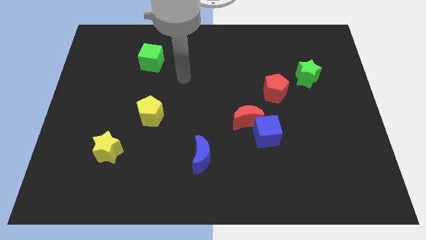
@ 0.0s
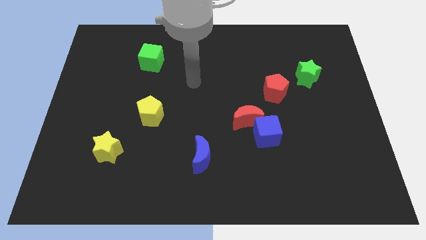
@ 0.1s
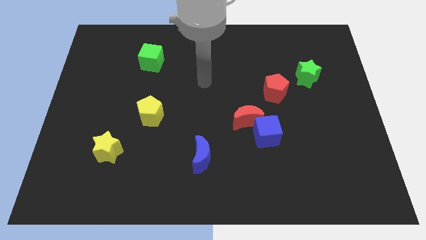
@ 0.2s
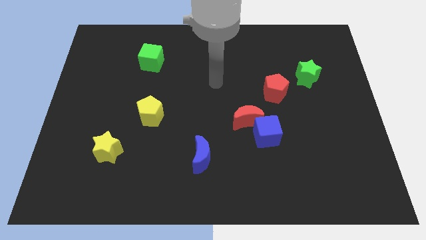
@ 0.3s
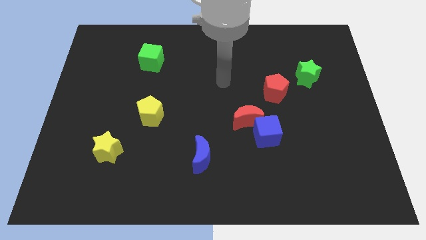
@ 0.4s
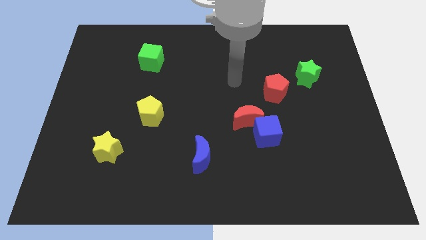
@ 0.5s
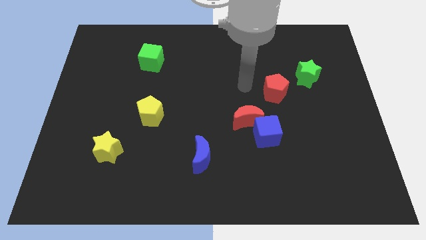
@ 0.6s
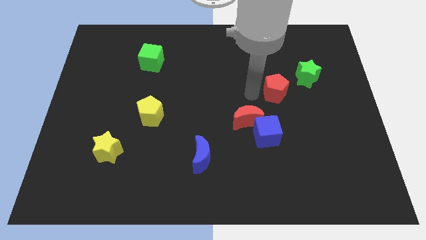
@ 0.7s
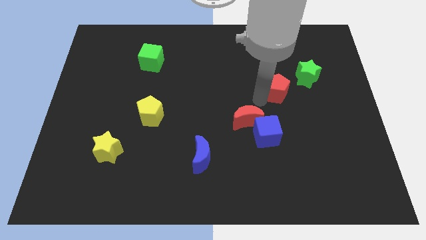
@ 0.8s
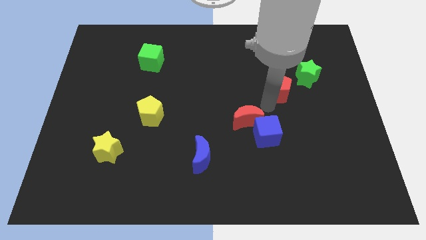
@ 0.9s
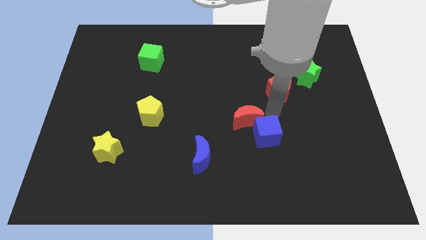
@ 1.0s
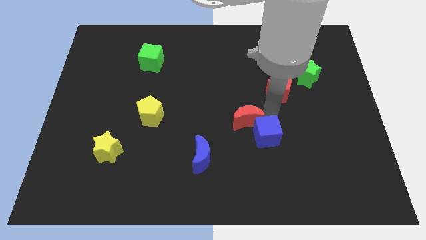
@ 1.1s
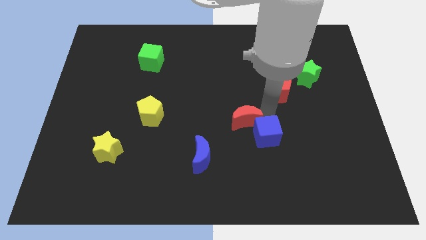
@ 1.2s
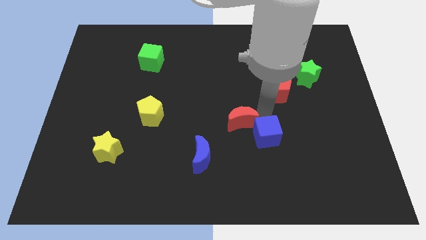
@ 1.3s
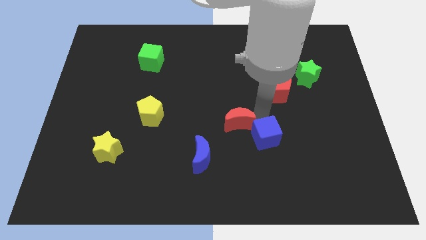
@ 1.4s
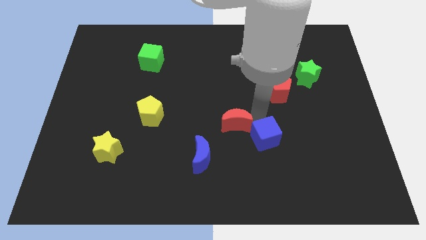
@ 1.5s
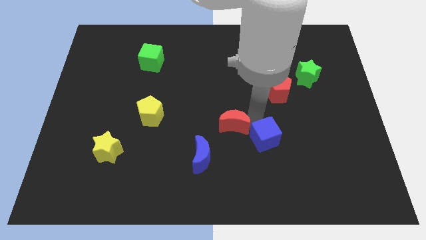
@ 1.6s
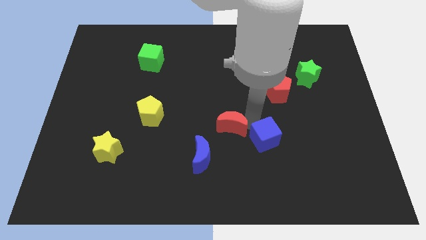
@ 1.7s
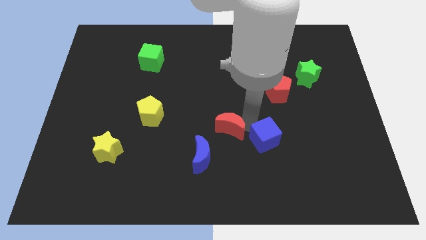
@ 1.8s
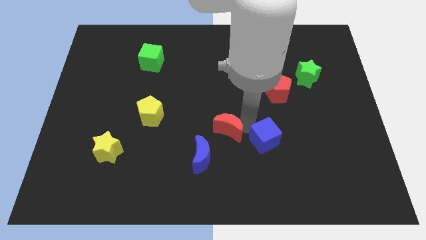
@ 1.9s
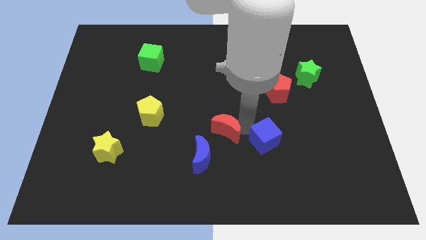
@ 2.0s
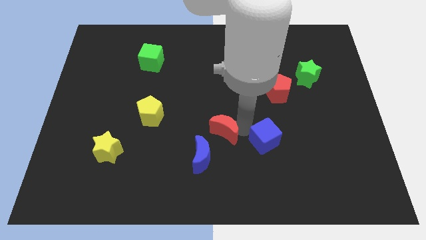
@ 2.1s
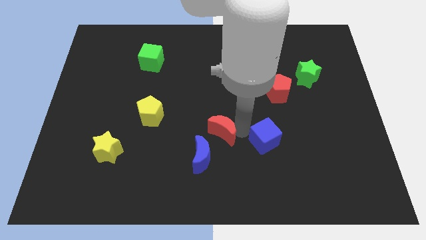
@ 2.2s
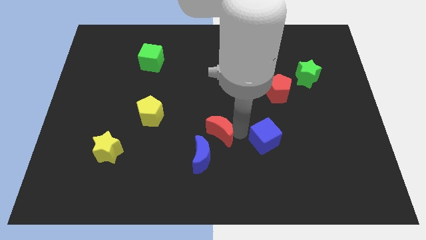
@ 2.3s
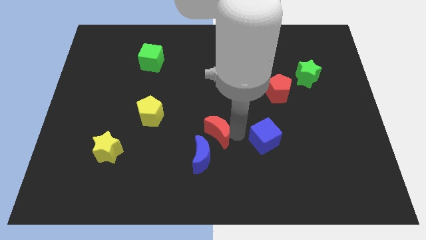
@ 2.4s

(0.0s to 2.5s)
slightly move the red moon down and then left

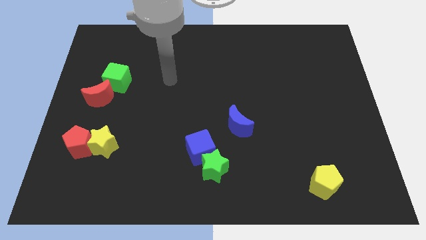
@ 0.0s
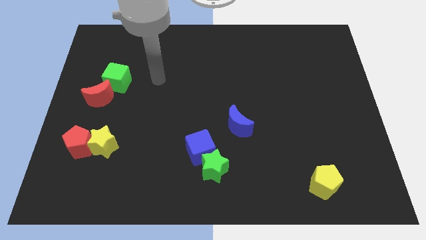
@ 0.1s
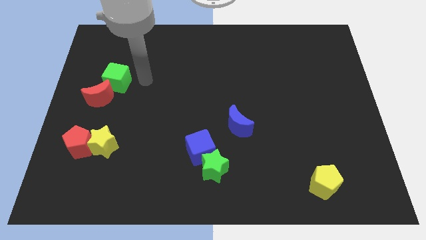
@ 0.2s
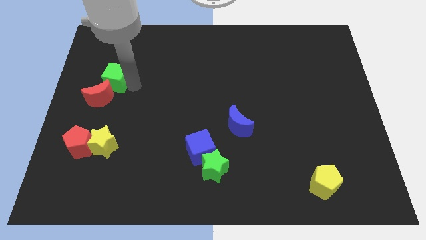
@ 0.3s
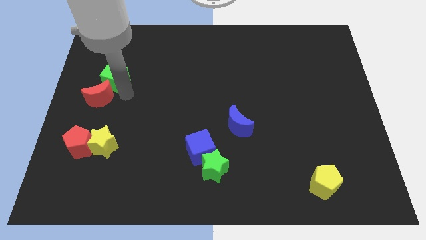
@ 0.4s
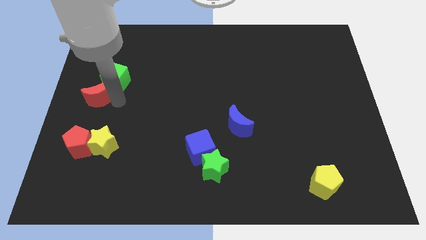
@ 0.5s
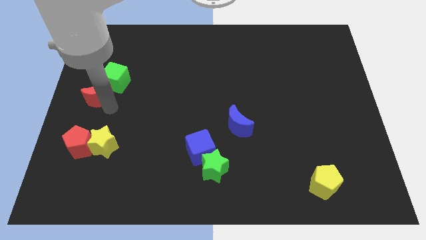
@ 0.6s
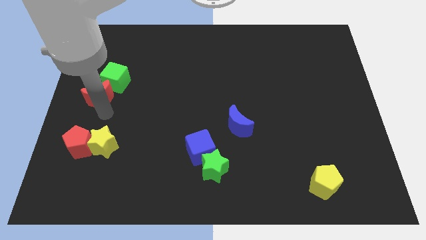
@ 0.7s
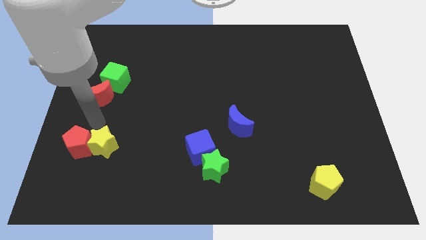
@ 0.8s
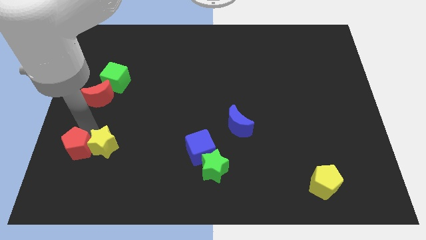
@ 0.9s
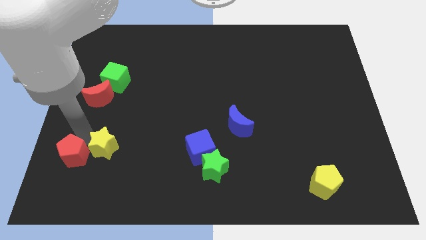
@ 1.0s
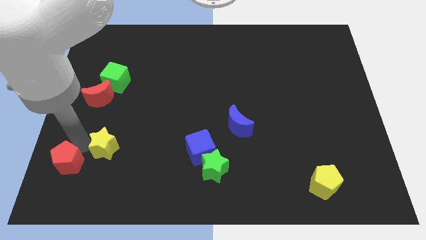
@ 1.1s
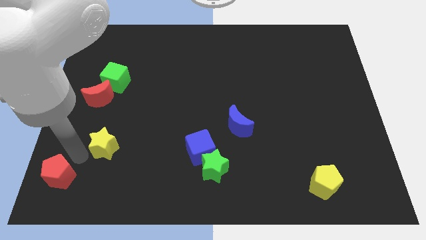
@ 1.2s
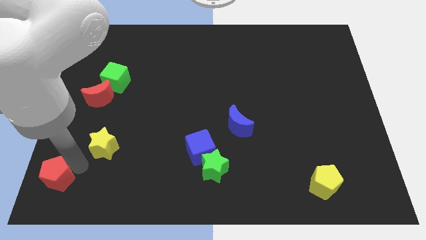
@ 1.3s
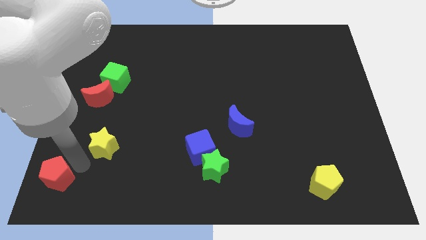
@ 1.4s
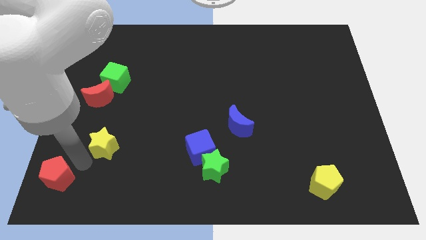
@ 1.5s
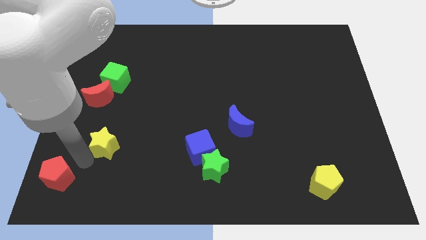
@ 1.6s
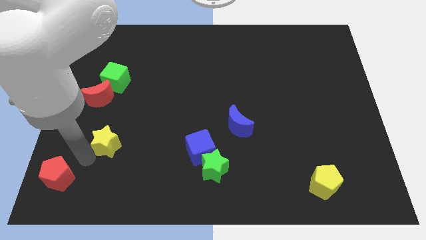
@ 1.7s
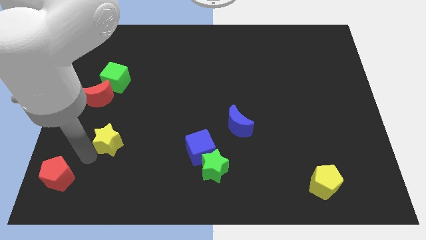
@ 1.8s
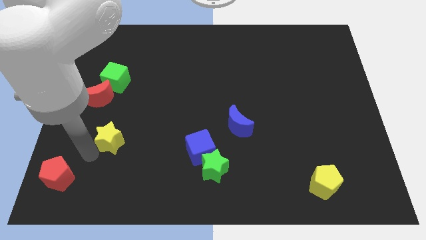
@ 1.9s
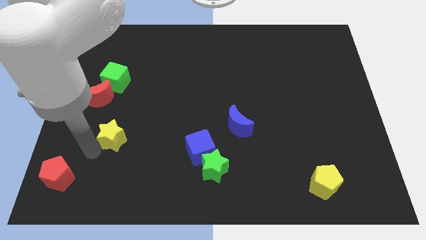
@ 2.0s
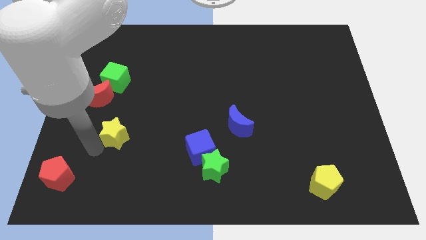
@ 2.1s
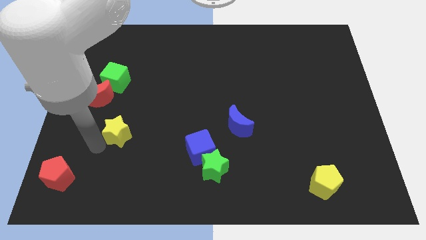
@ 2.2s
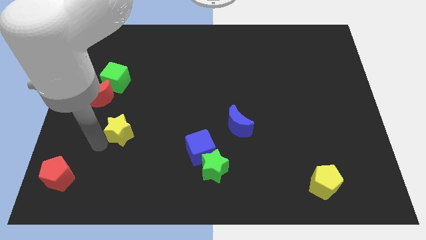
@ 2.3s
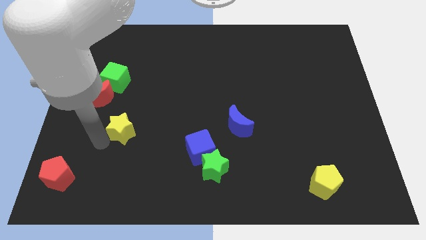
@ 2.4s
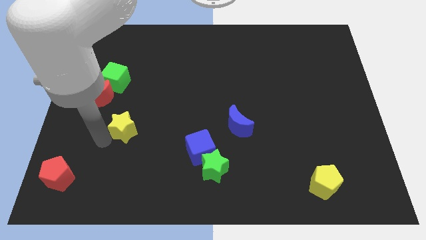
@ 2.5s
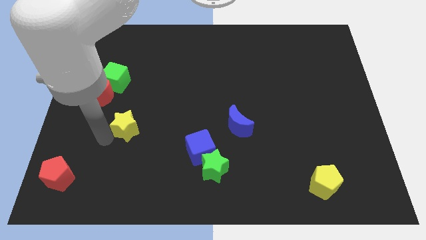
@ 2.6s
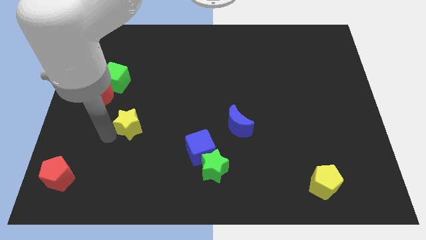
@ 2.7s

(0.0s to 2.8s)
push the yellow star up and then right a bit

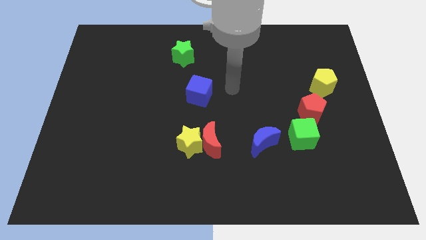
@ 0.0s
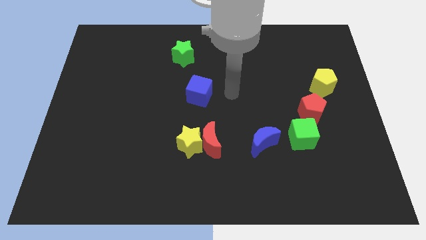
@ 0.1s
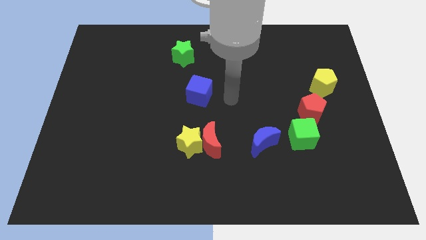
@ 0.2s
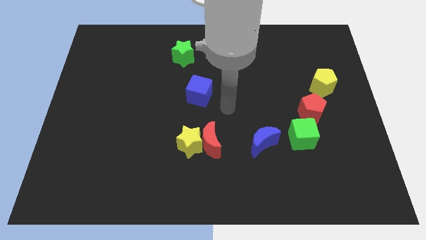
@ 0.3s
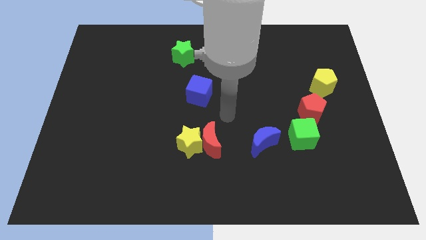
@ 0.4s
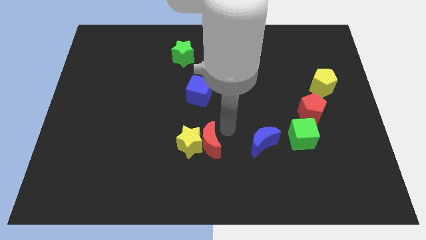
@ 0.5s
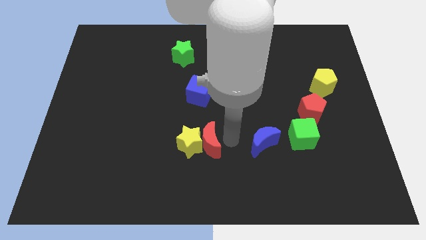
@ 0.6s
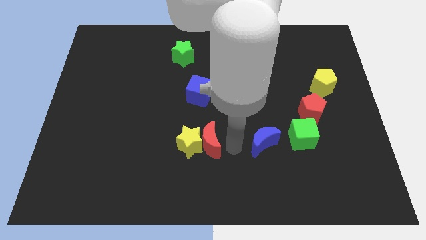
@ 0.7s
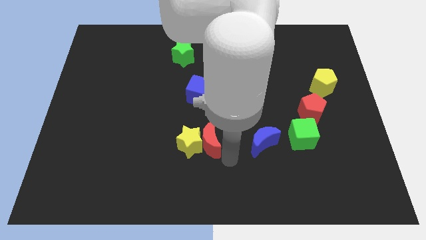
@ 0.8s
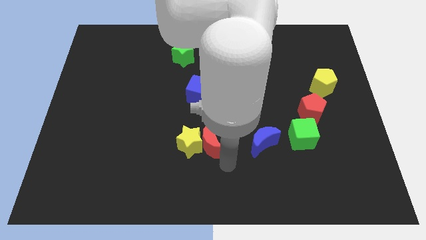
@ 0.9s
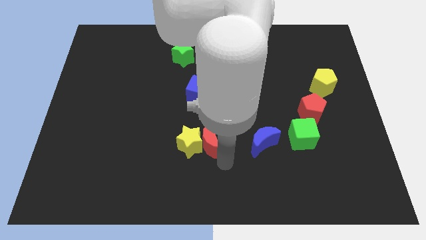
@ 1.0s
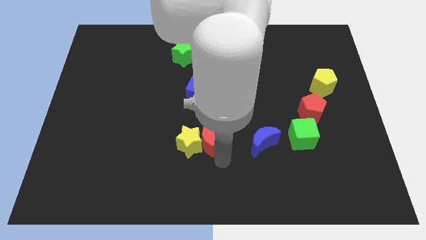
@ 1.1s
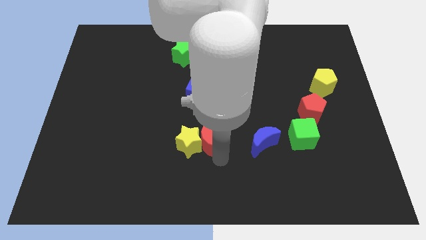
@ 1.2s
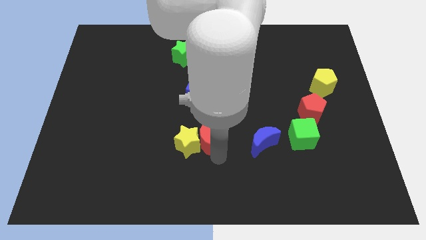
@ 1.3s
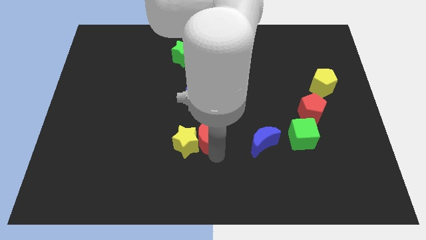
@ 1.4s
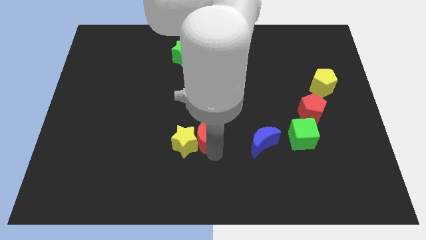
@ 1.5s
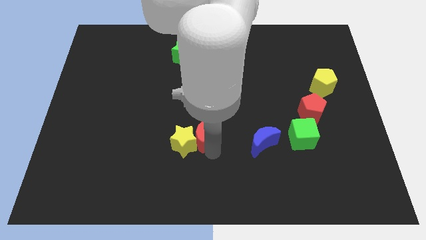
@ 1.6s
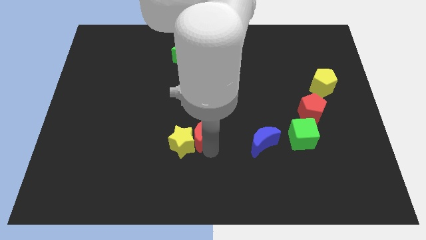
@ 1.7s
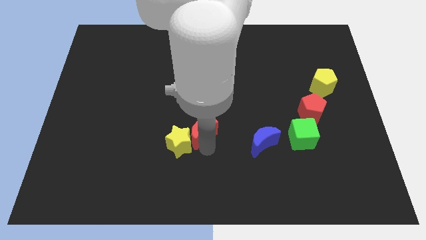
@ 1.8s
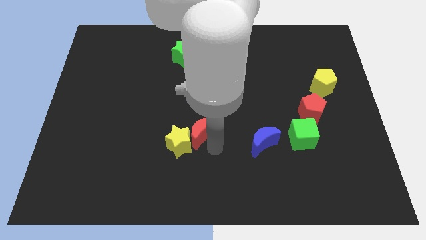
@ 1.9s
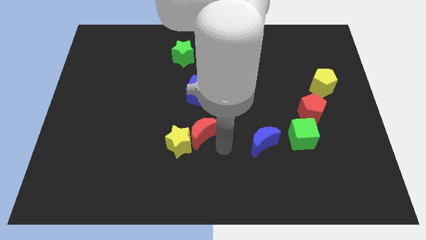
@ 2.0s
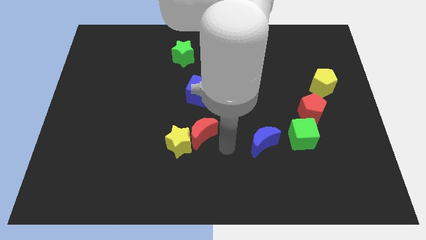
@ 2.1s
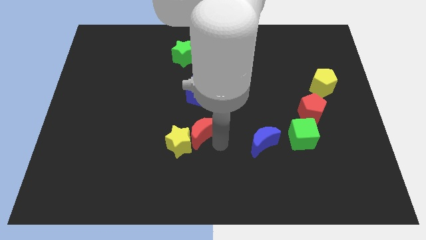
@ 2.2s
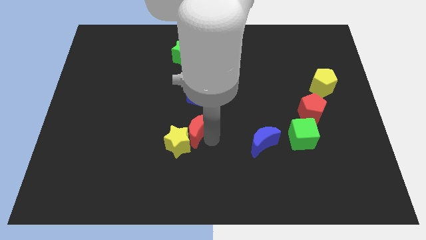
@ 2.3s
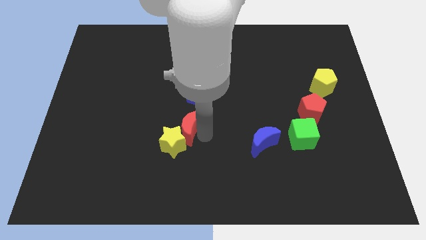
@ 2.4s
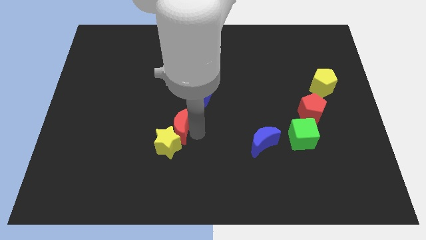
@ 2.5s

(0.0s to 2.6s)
slightly slide the red moon up and then to the left
